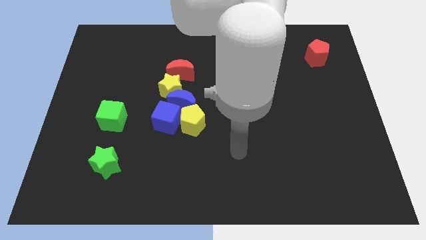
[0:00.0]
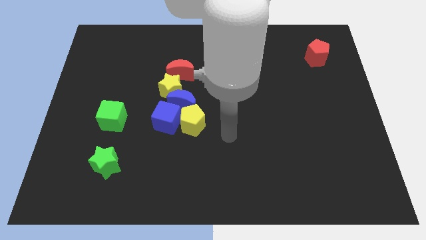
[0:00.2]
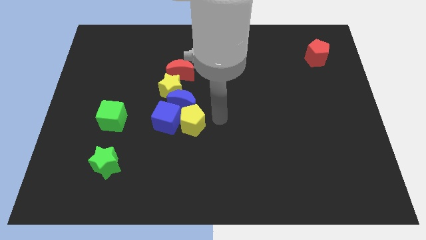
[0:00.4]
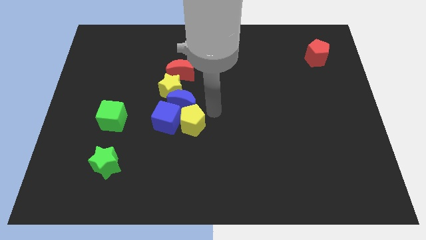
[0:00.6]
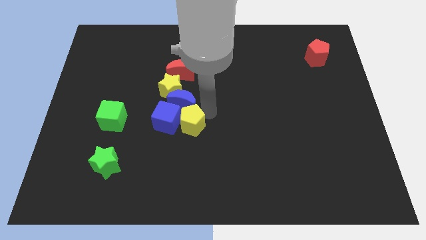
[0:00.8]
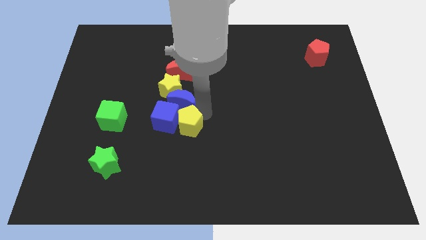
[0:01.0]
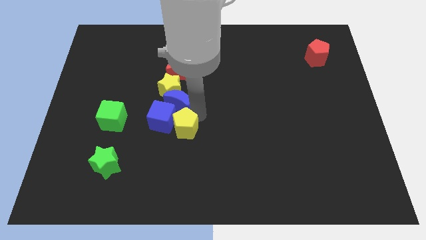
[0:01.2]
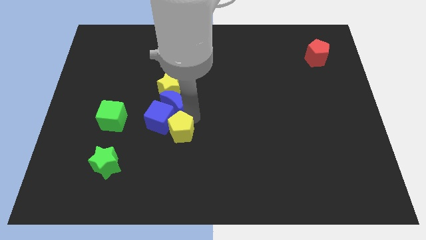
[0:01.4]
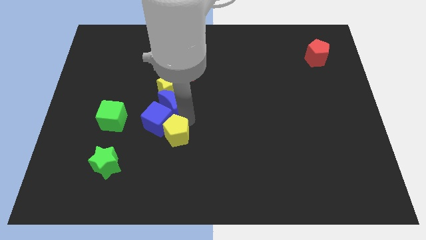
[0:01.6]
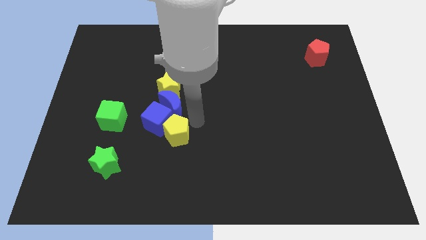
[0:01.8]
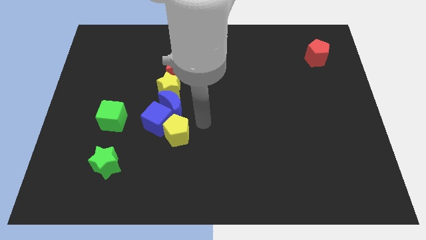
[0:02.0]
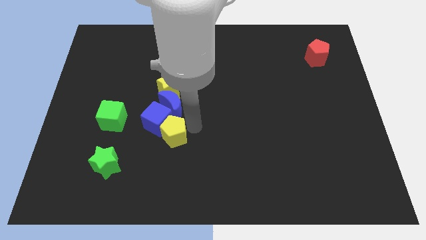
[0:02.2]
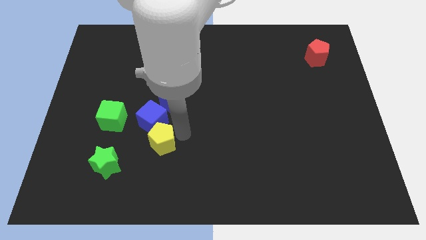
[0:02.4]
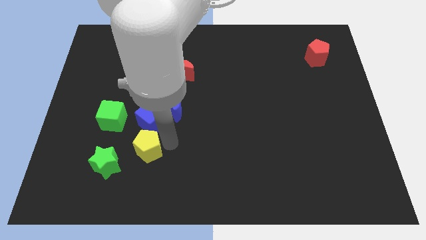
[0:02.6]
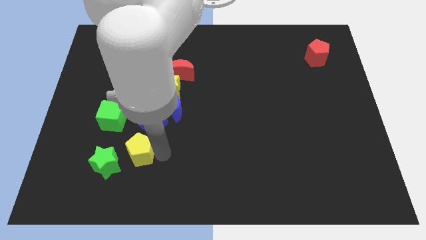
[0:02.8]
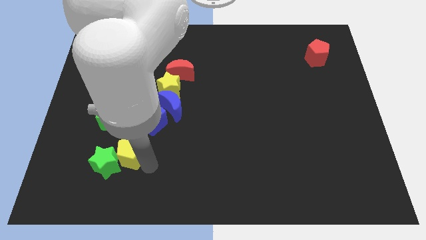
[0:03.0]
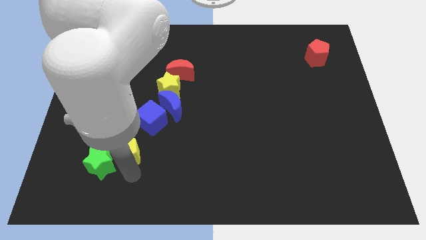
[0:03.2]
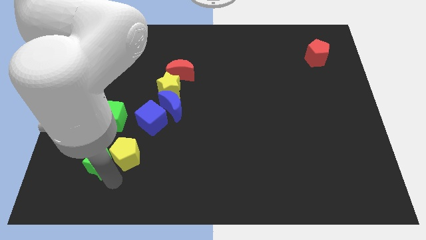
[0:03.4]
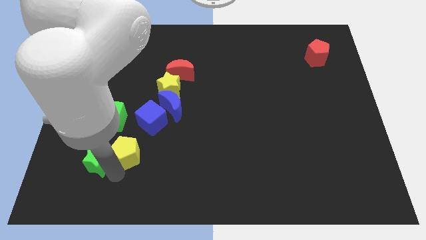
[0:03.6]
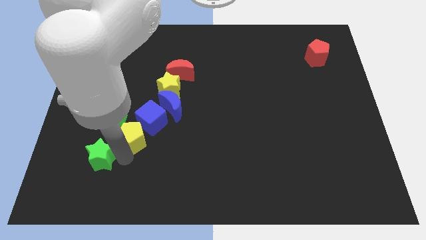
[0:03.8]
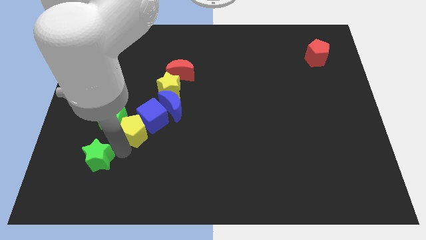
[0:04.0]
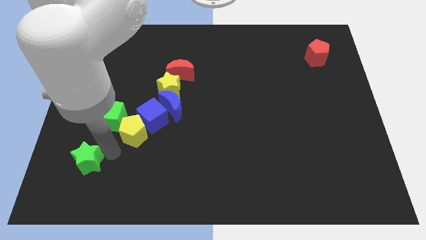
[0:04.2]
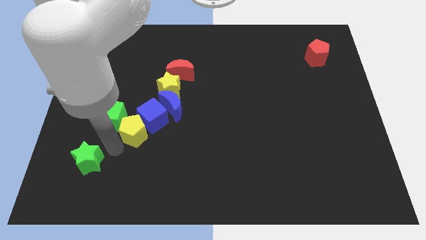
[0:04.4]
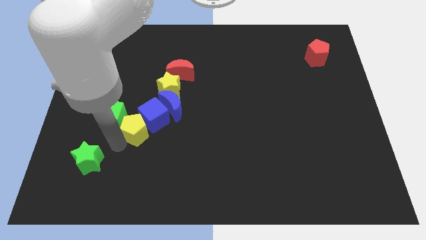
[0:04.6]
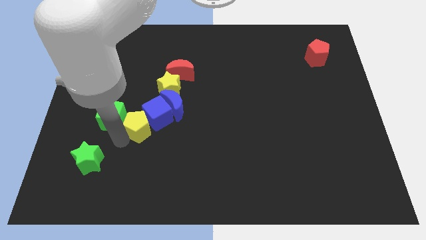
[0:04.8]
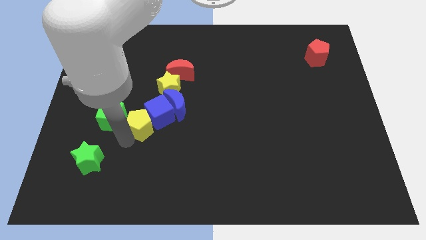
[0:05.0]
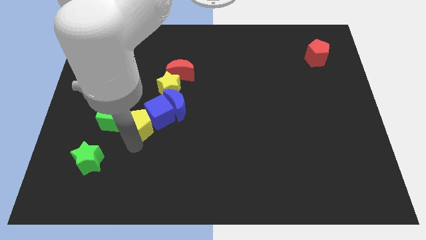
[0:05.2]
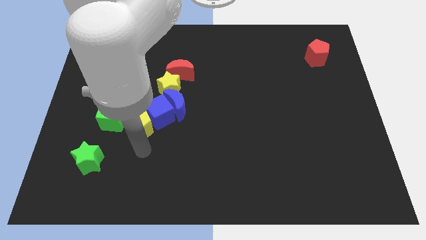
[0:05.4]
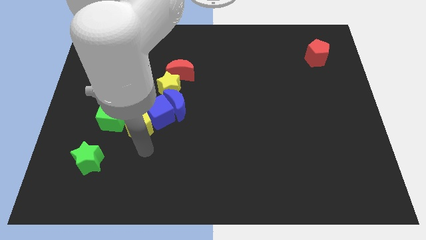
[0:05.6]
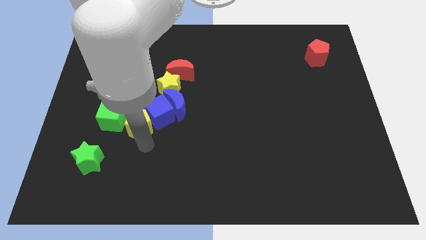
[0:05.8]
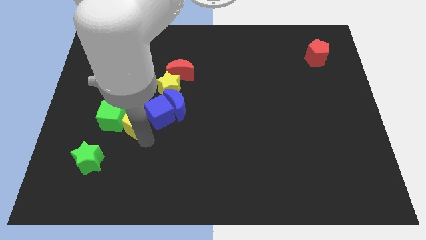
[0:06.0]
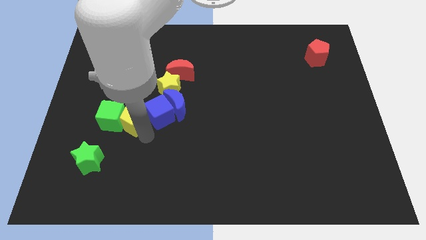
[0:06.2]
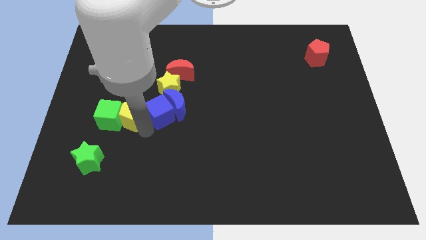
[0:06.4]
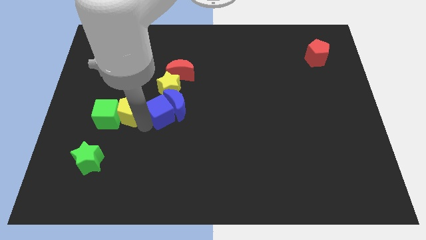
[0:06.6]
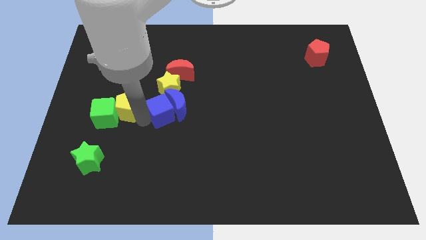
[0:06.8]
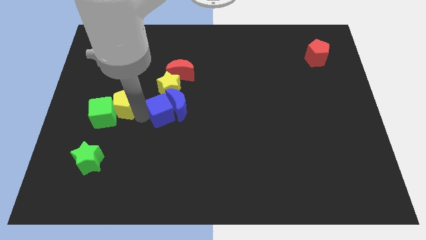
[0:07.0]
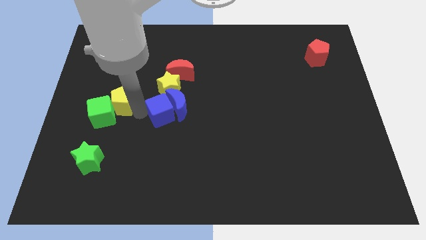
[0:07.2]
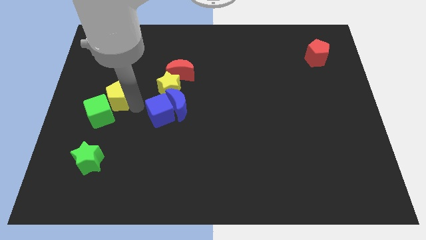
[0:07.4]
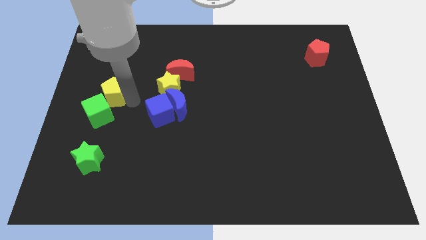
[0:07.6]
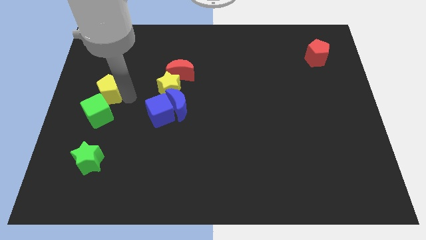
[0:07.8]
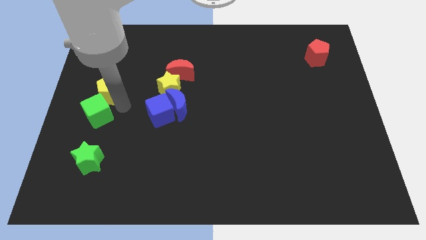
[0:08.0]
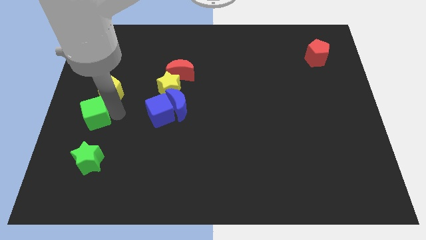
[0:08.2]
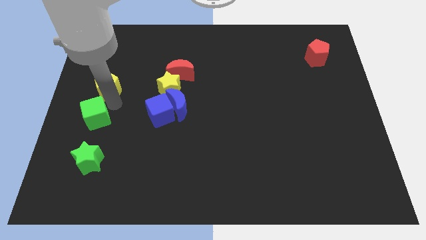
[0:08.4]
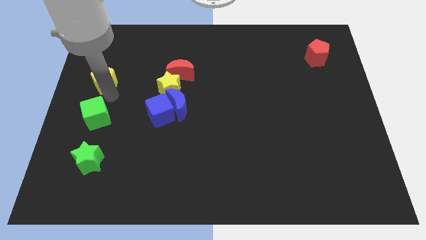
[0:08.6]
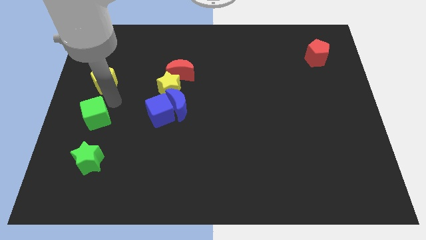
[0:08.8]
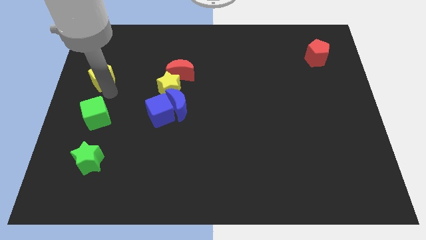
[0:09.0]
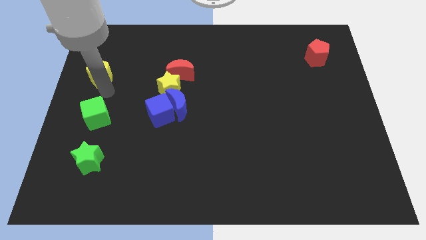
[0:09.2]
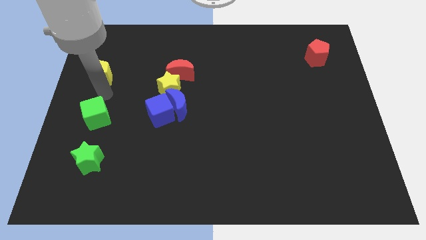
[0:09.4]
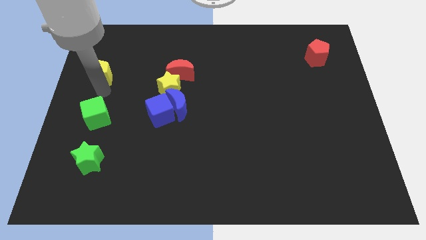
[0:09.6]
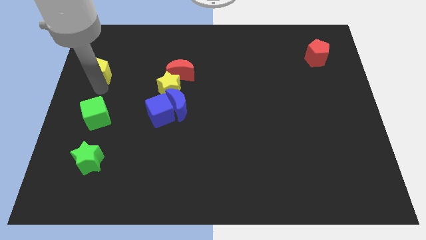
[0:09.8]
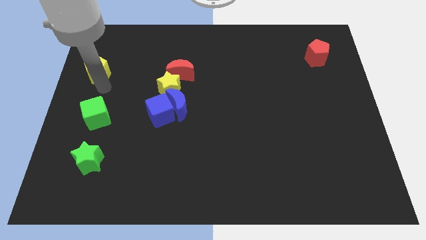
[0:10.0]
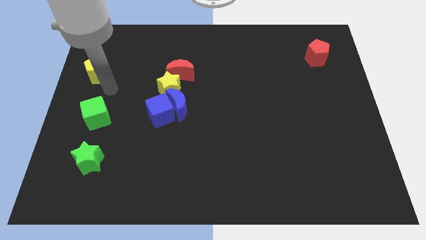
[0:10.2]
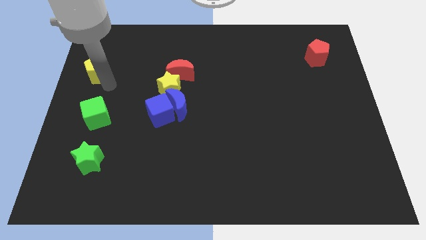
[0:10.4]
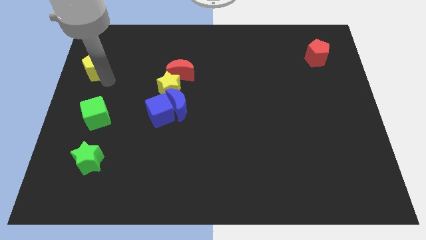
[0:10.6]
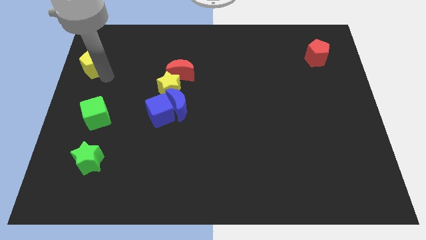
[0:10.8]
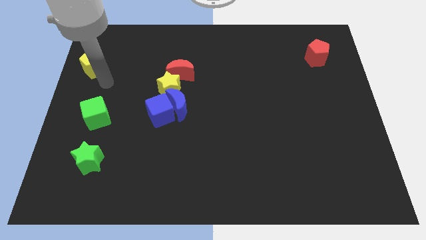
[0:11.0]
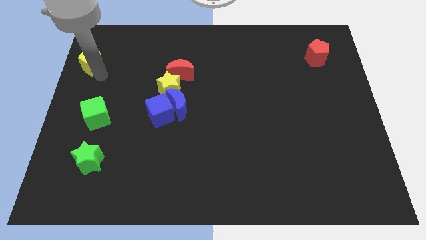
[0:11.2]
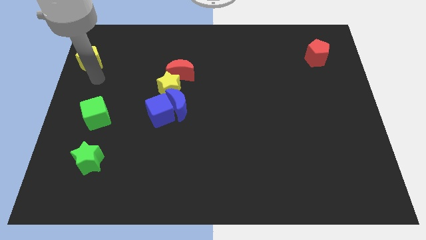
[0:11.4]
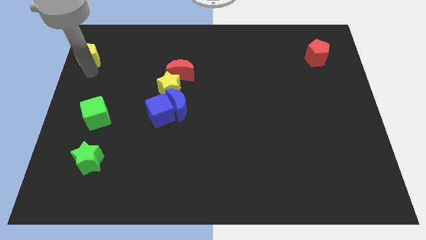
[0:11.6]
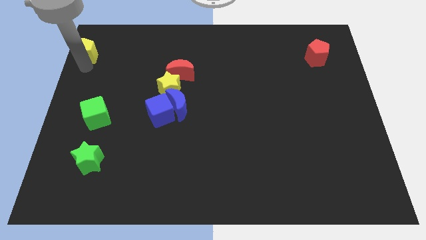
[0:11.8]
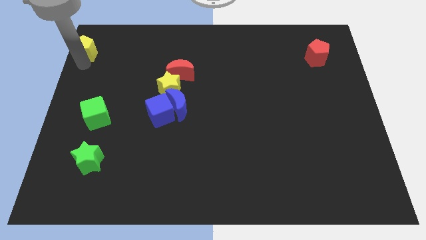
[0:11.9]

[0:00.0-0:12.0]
move the yellow pentagon to the top left corner

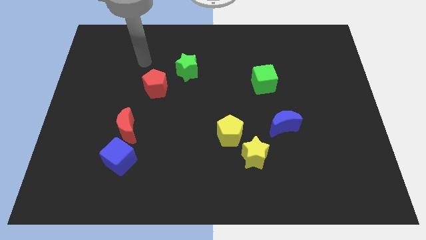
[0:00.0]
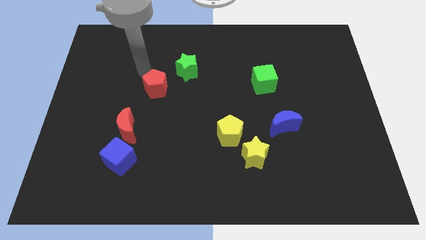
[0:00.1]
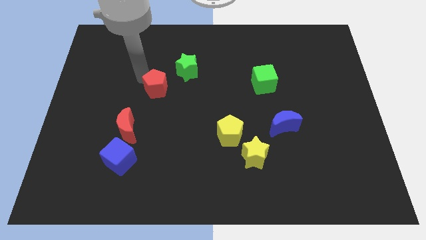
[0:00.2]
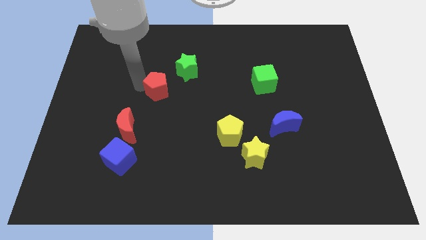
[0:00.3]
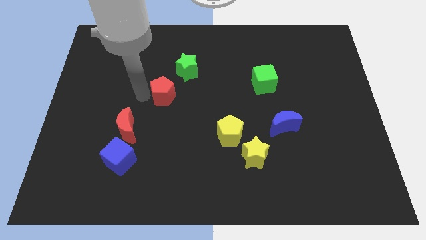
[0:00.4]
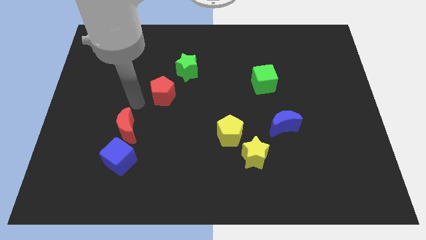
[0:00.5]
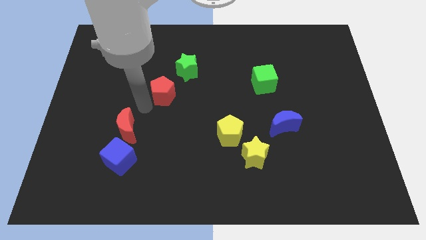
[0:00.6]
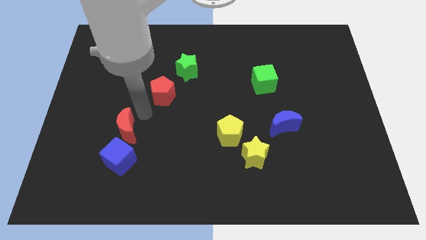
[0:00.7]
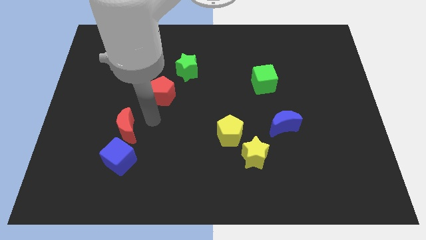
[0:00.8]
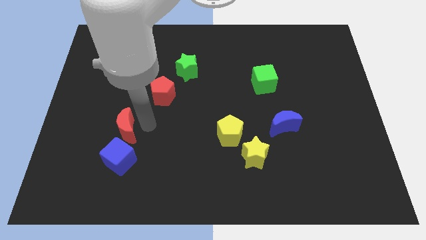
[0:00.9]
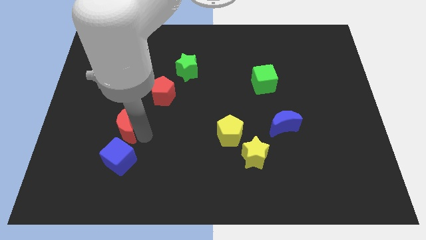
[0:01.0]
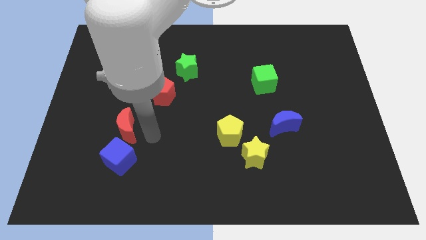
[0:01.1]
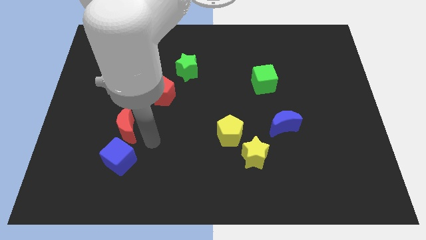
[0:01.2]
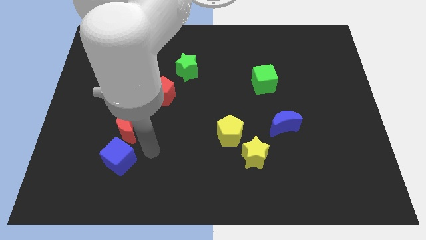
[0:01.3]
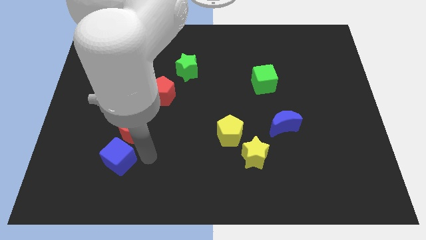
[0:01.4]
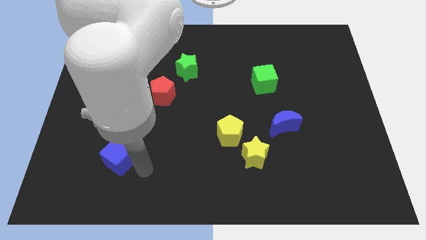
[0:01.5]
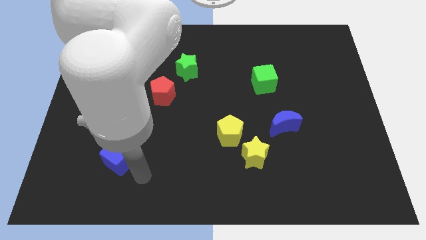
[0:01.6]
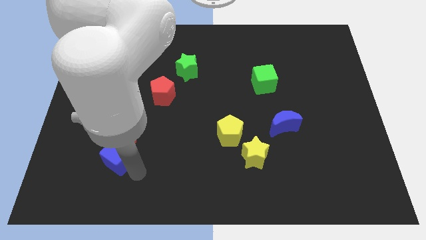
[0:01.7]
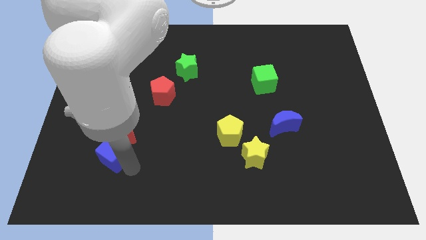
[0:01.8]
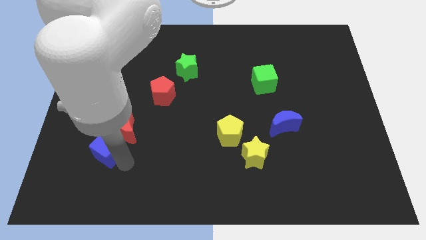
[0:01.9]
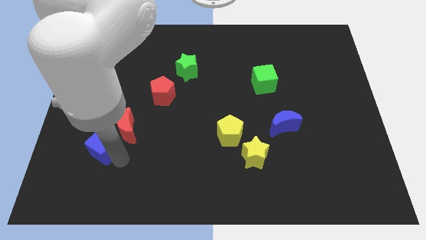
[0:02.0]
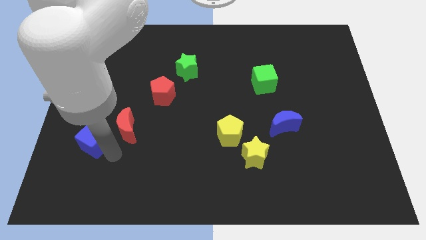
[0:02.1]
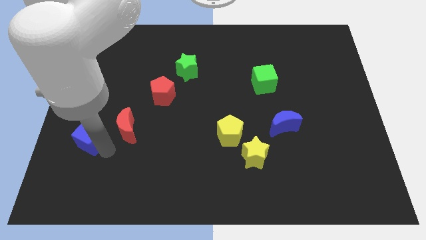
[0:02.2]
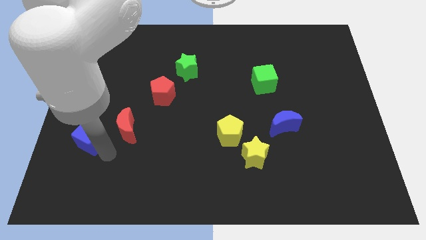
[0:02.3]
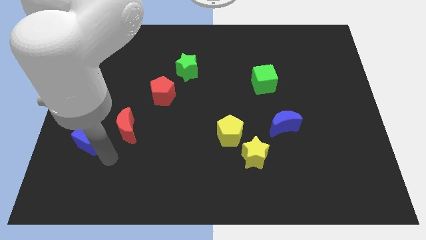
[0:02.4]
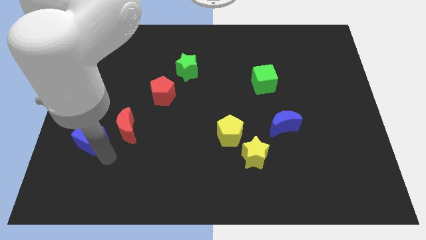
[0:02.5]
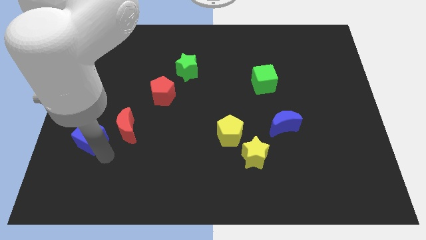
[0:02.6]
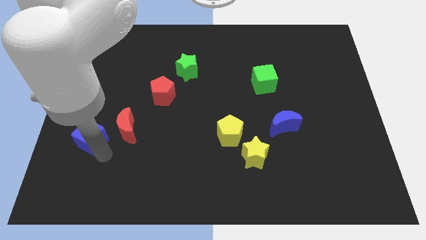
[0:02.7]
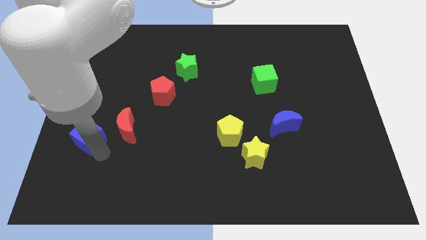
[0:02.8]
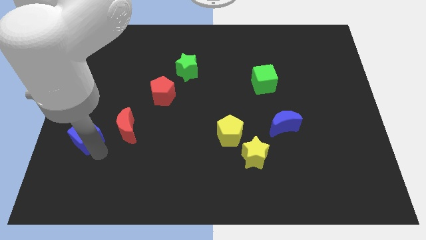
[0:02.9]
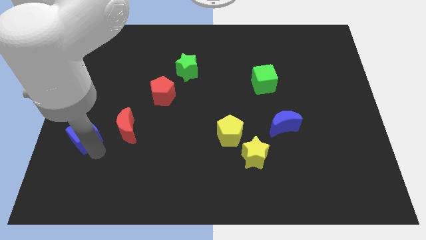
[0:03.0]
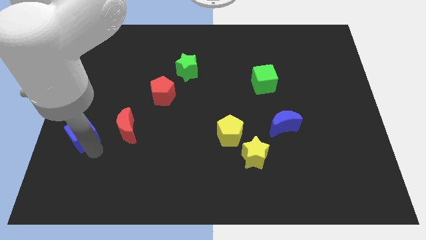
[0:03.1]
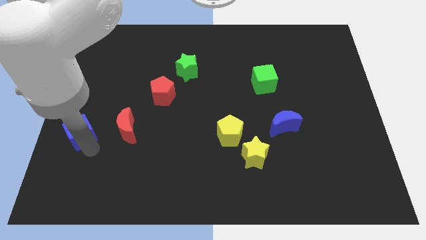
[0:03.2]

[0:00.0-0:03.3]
slide the blue cube to the left side
